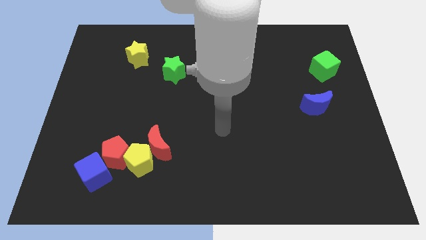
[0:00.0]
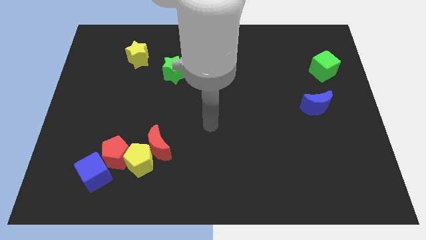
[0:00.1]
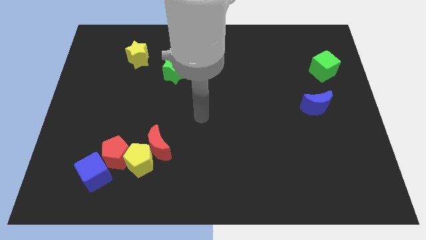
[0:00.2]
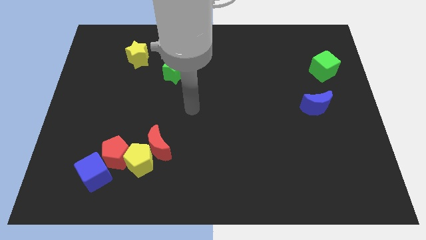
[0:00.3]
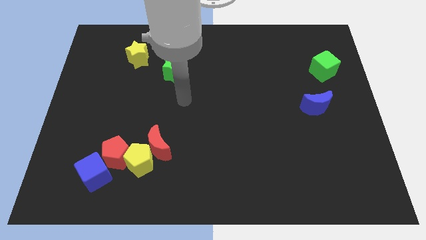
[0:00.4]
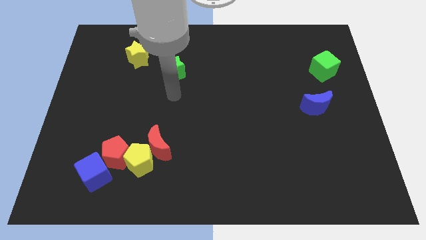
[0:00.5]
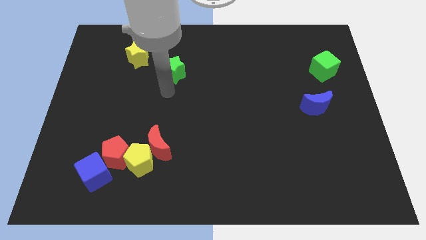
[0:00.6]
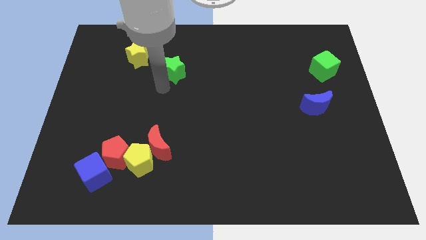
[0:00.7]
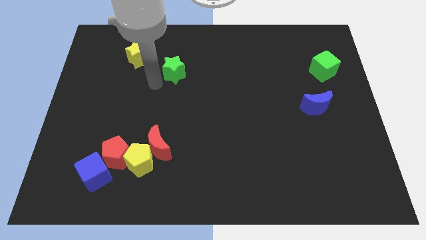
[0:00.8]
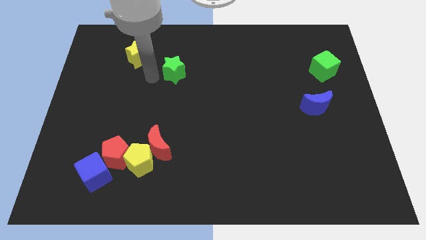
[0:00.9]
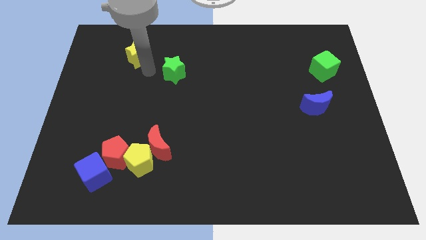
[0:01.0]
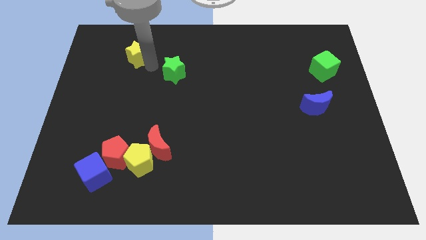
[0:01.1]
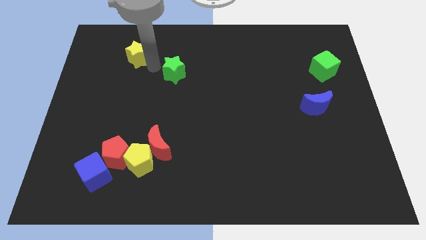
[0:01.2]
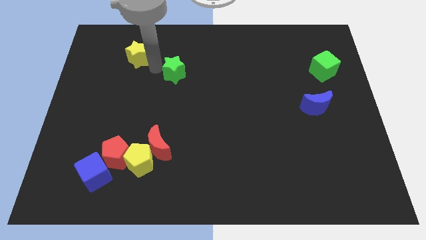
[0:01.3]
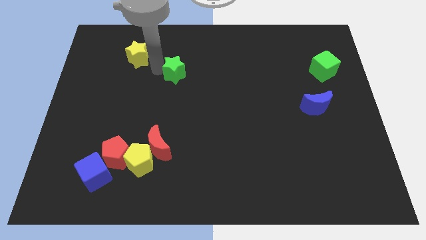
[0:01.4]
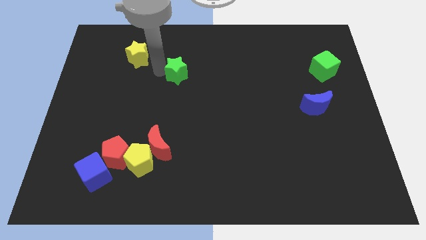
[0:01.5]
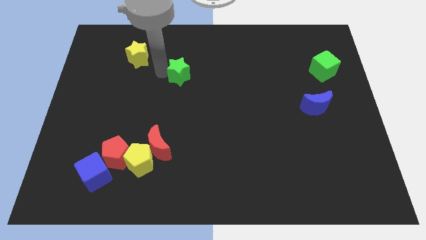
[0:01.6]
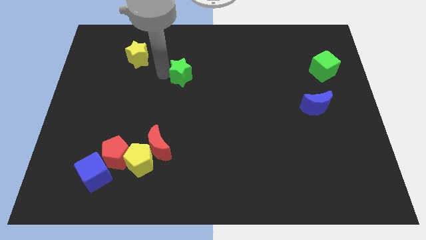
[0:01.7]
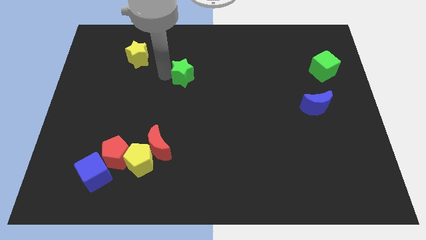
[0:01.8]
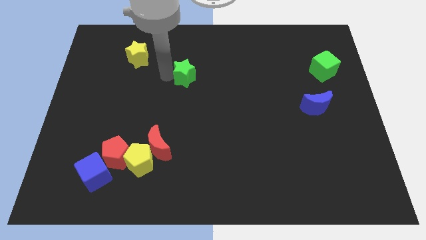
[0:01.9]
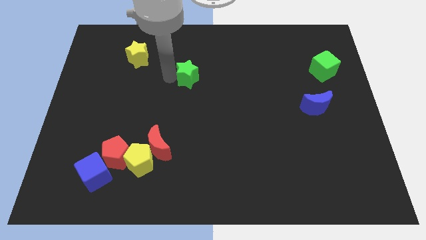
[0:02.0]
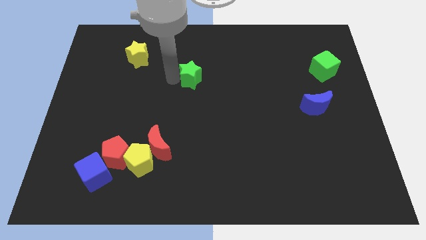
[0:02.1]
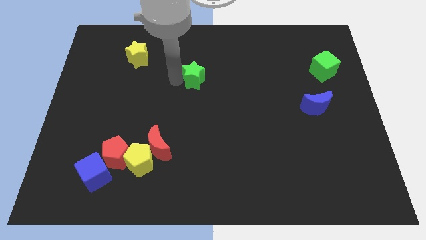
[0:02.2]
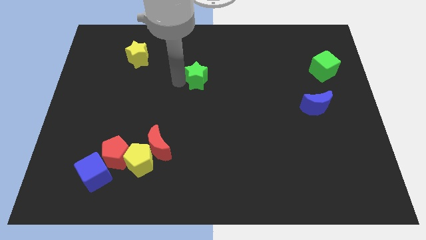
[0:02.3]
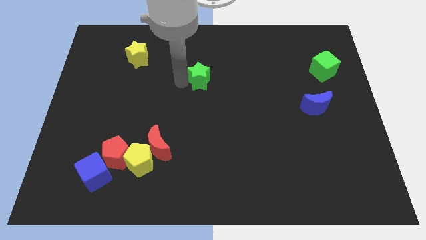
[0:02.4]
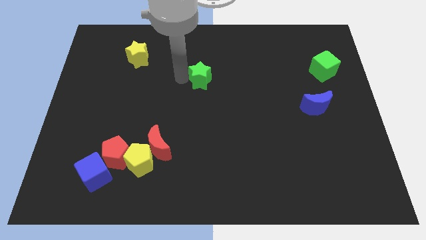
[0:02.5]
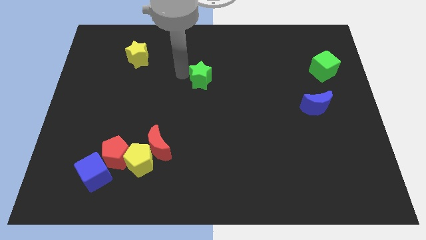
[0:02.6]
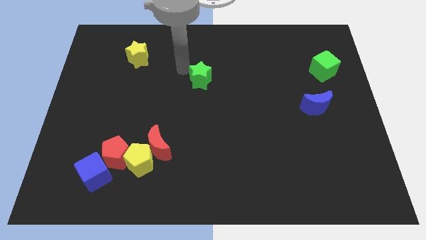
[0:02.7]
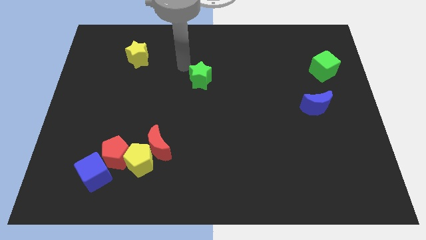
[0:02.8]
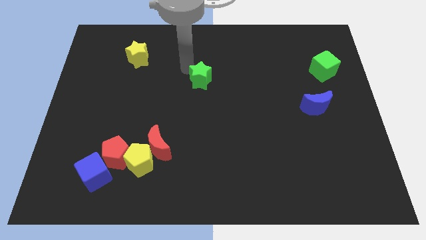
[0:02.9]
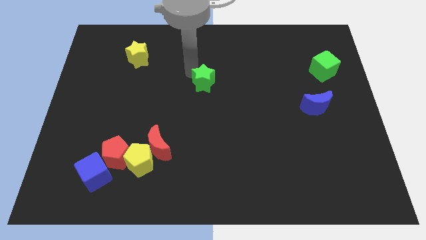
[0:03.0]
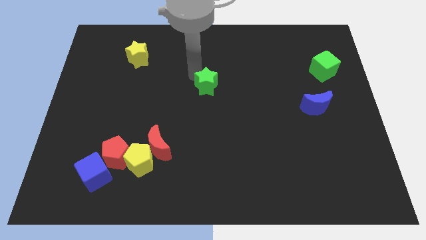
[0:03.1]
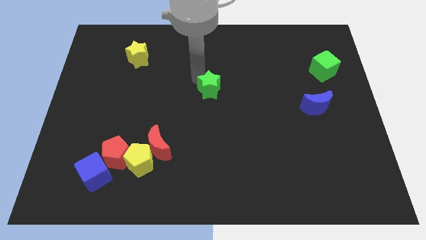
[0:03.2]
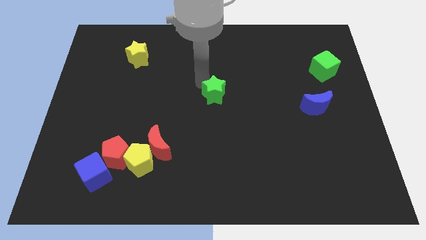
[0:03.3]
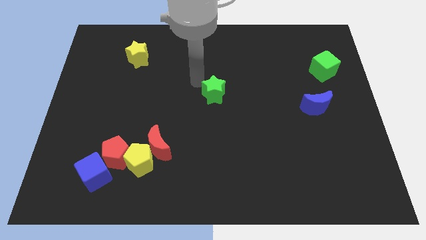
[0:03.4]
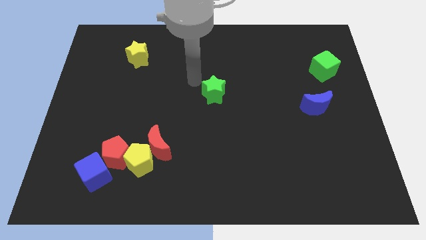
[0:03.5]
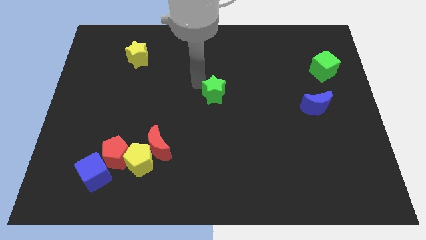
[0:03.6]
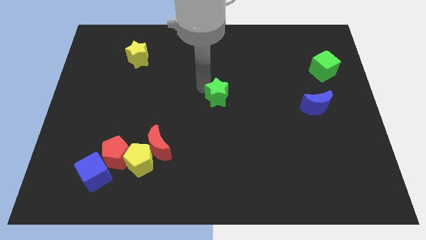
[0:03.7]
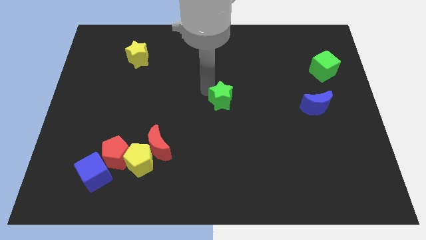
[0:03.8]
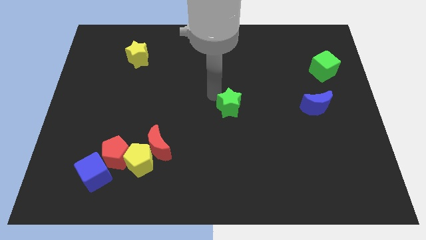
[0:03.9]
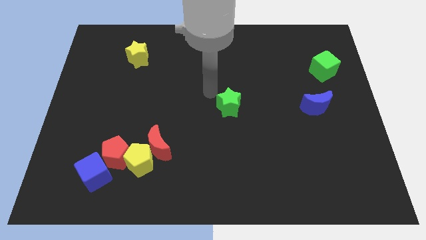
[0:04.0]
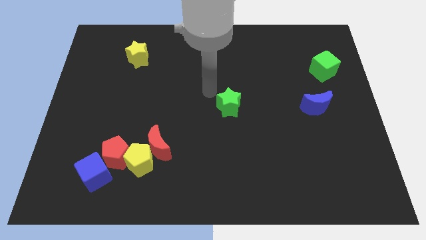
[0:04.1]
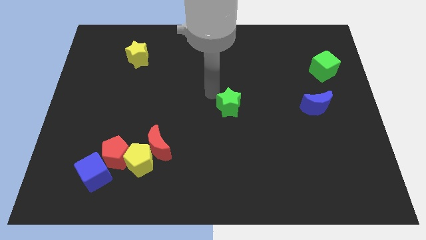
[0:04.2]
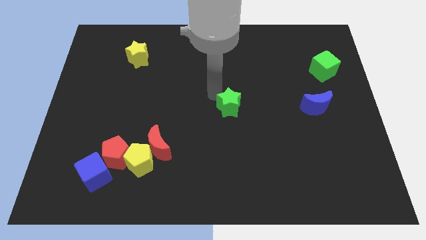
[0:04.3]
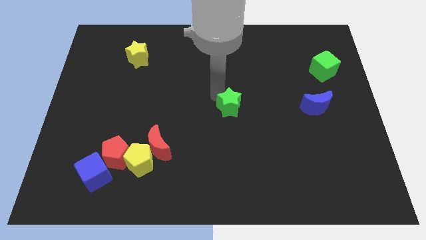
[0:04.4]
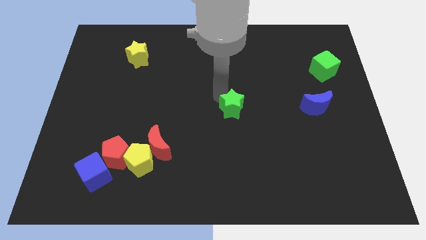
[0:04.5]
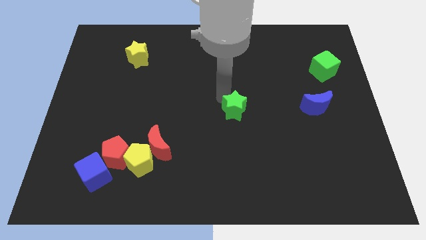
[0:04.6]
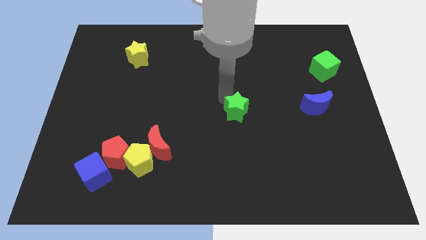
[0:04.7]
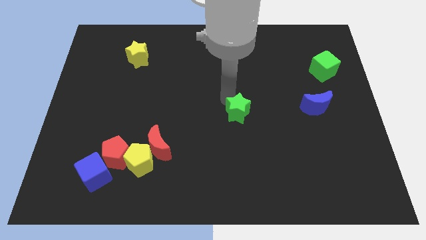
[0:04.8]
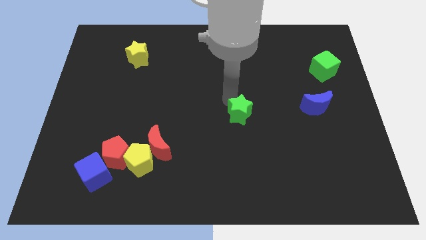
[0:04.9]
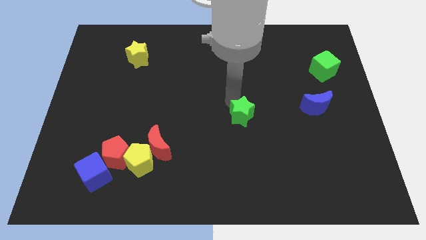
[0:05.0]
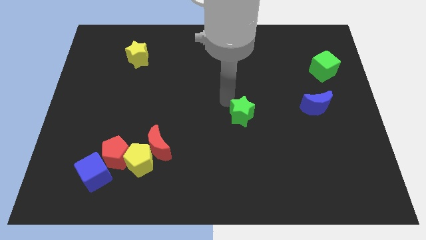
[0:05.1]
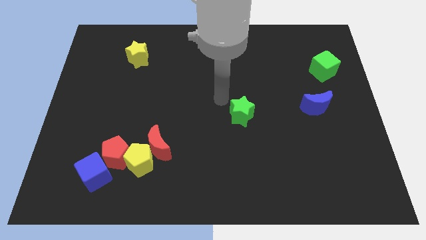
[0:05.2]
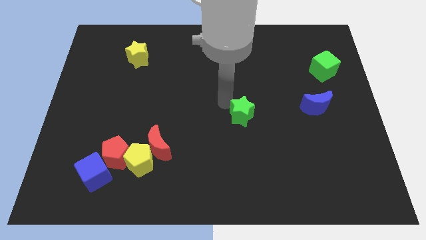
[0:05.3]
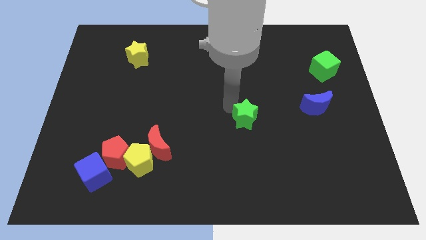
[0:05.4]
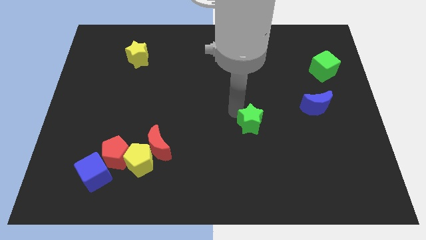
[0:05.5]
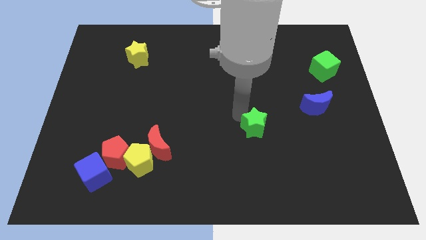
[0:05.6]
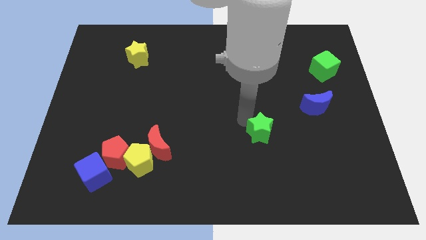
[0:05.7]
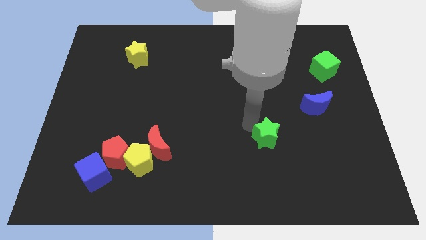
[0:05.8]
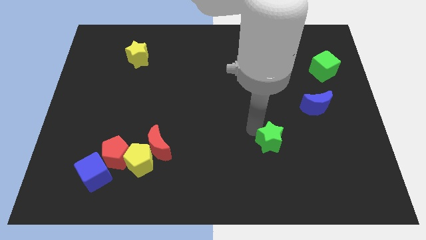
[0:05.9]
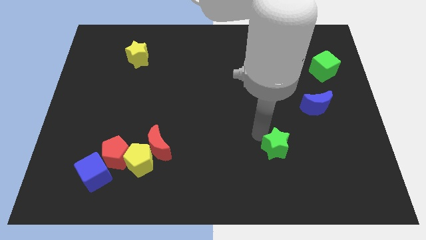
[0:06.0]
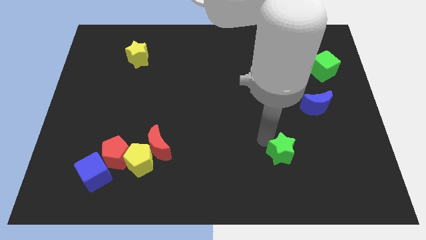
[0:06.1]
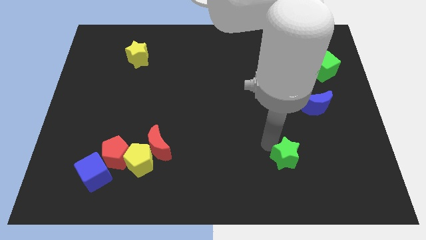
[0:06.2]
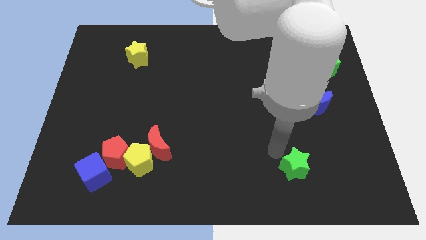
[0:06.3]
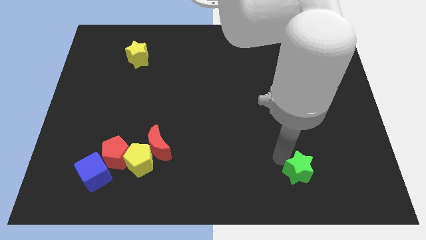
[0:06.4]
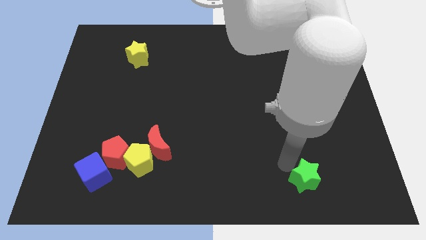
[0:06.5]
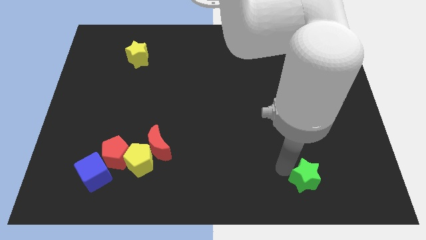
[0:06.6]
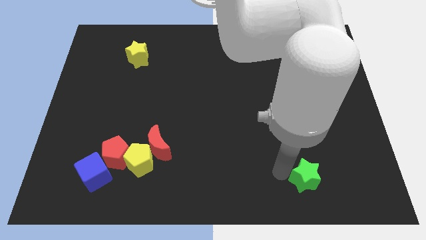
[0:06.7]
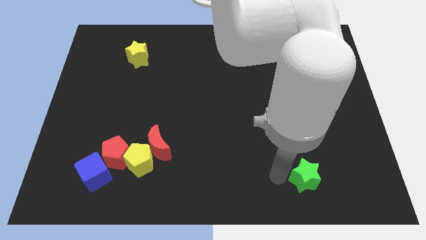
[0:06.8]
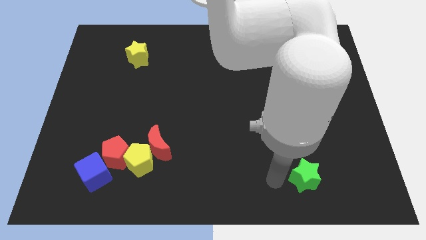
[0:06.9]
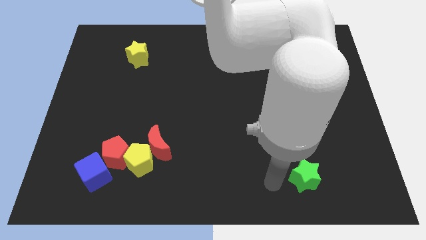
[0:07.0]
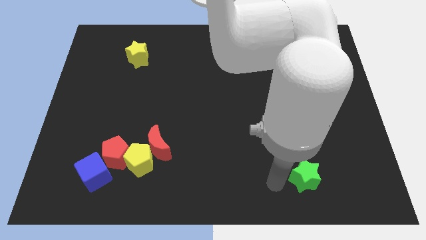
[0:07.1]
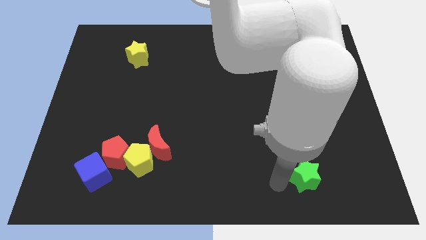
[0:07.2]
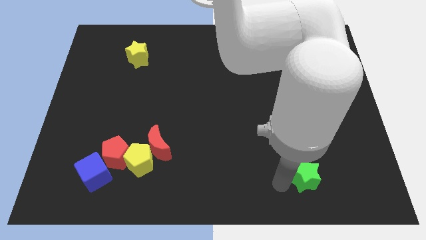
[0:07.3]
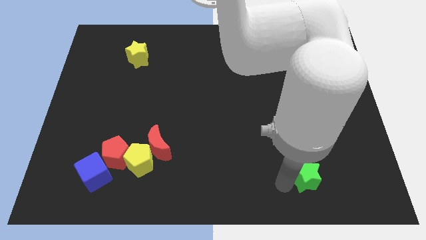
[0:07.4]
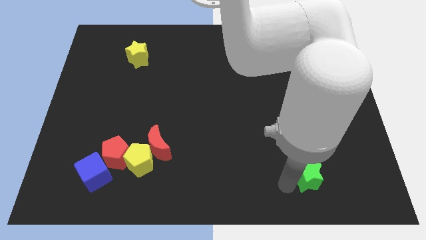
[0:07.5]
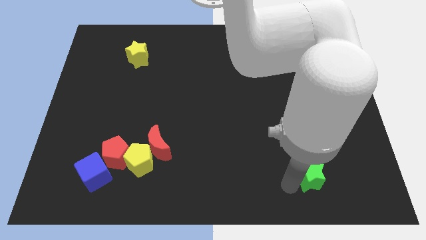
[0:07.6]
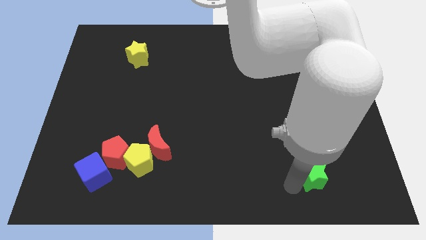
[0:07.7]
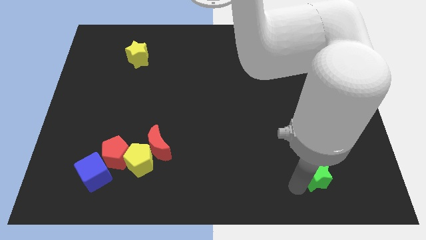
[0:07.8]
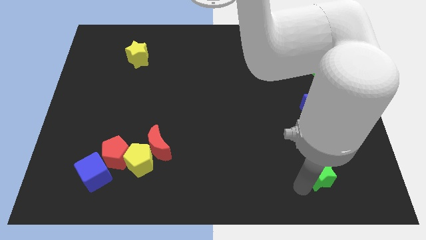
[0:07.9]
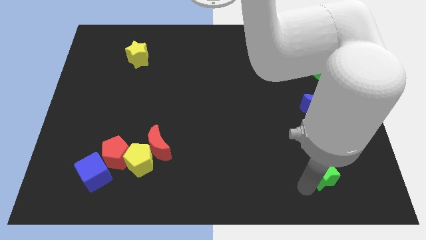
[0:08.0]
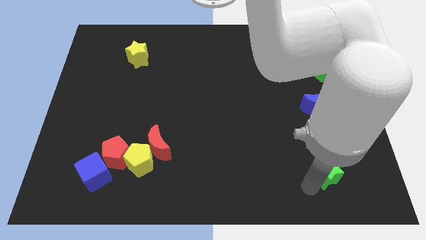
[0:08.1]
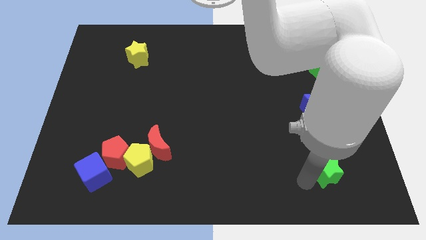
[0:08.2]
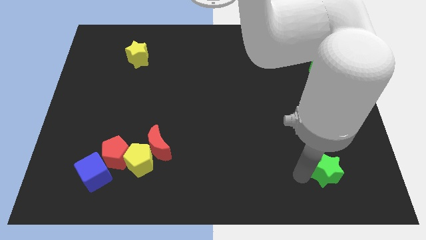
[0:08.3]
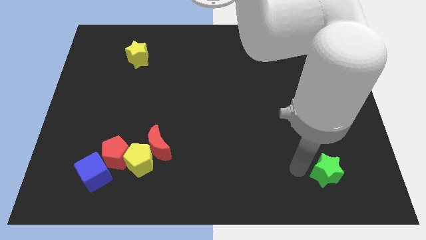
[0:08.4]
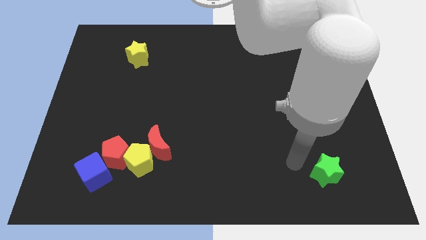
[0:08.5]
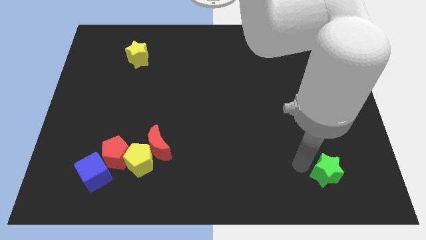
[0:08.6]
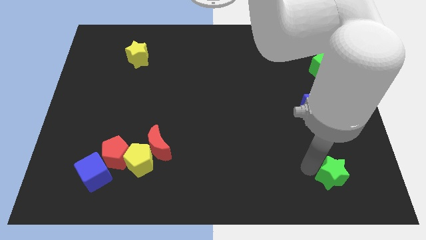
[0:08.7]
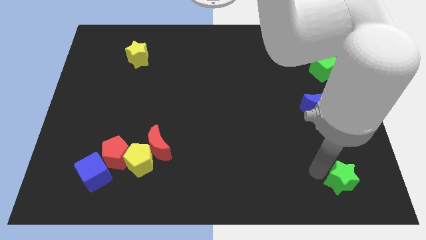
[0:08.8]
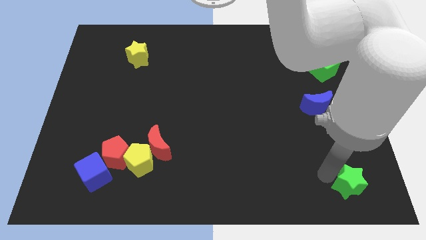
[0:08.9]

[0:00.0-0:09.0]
push the green star to the bottom right corner
